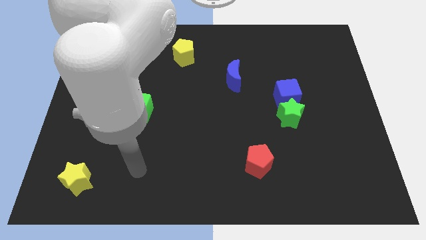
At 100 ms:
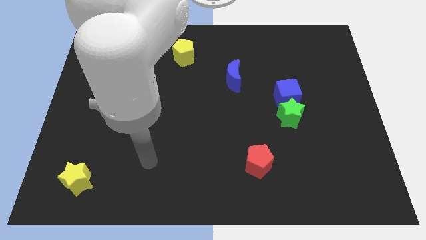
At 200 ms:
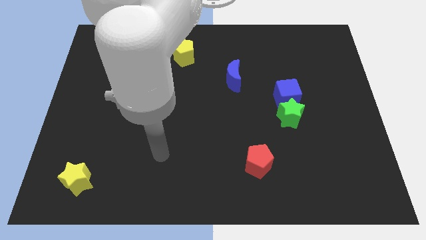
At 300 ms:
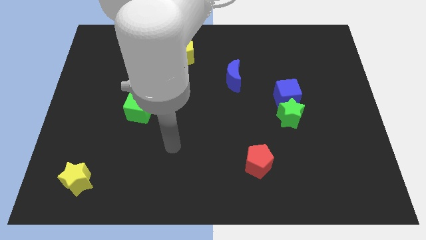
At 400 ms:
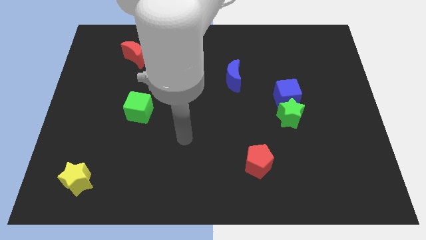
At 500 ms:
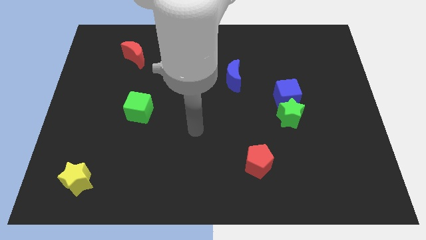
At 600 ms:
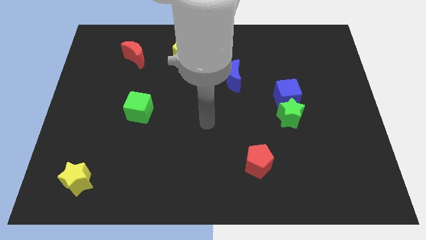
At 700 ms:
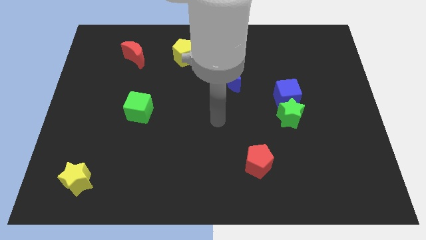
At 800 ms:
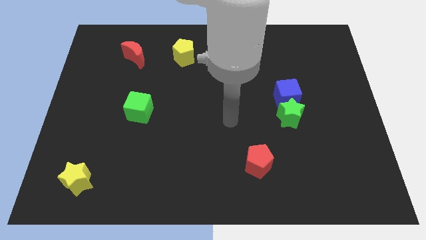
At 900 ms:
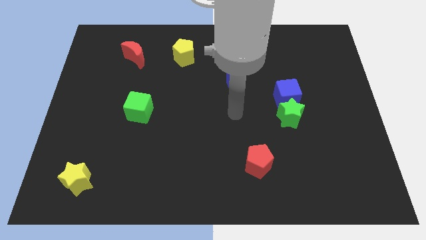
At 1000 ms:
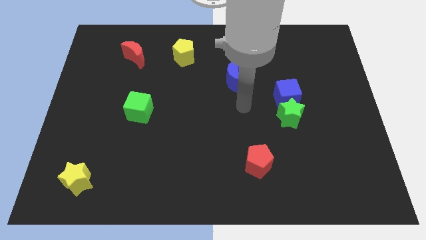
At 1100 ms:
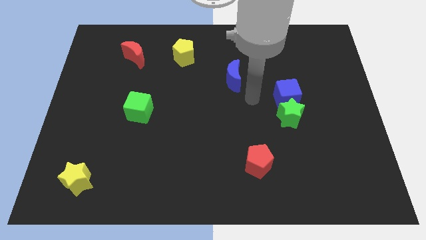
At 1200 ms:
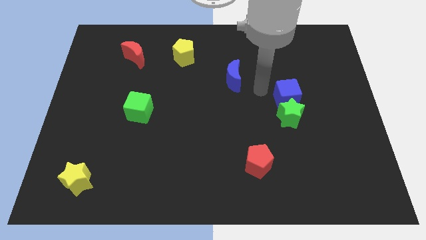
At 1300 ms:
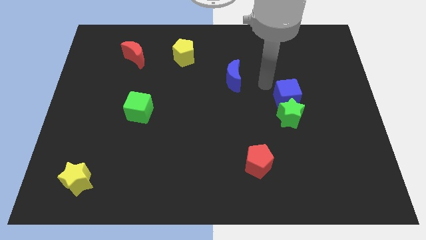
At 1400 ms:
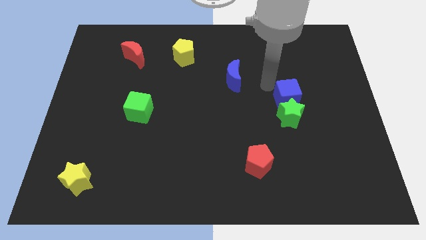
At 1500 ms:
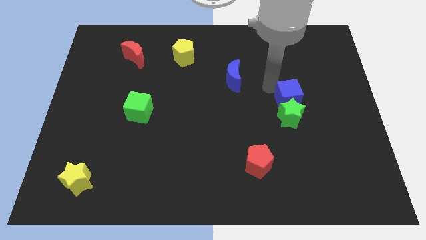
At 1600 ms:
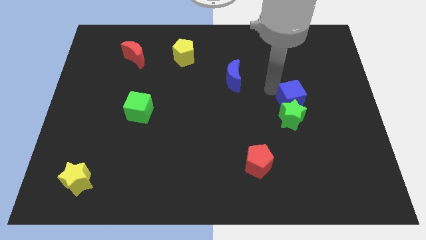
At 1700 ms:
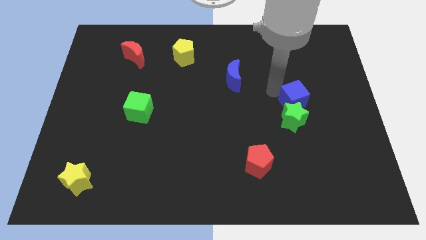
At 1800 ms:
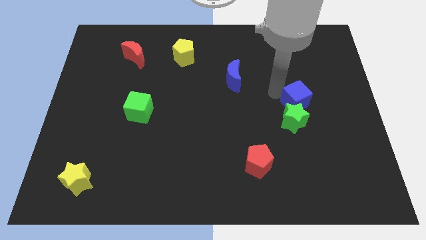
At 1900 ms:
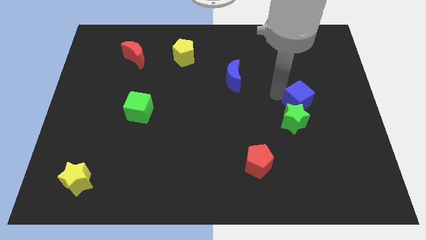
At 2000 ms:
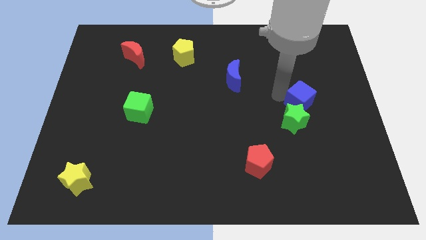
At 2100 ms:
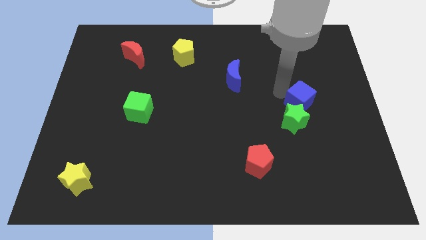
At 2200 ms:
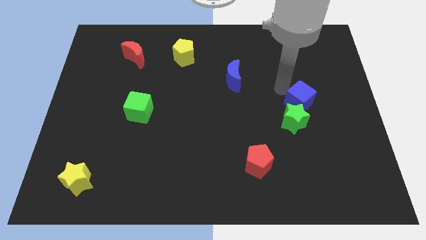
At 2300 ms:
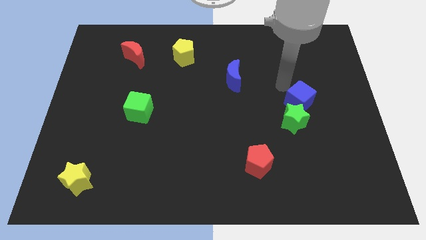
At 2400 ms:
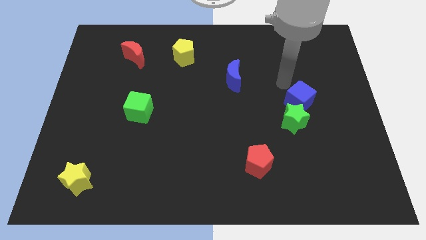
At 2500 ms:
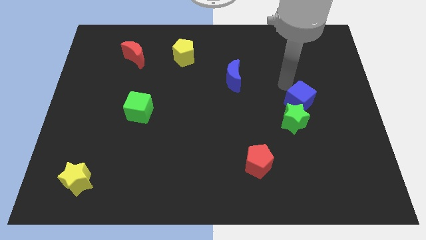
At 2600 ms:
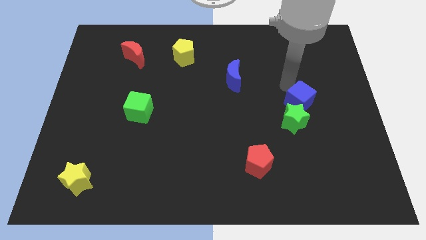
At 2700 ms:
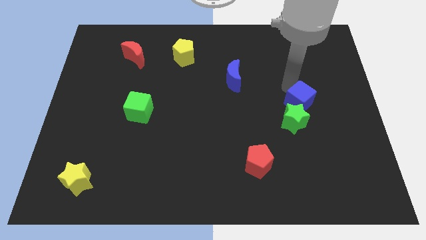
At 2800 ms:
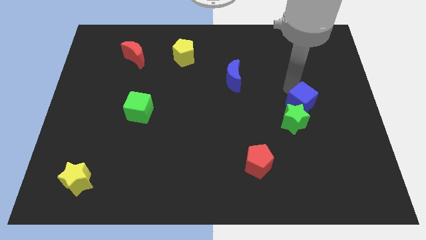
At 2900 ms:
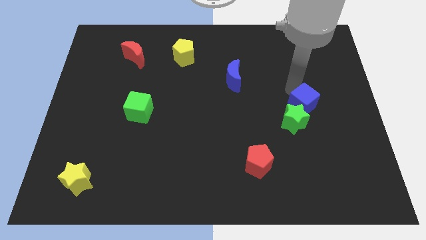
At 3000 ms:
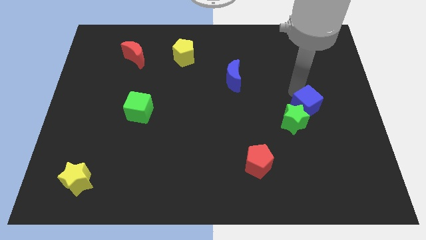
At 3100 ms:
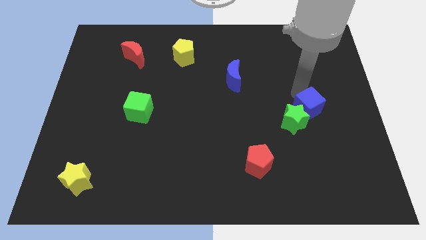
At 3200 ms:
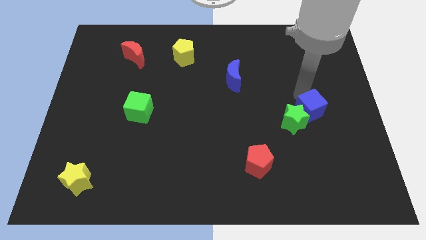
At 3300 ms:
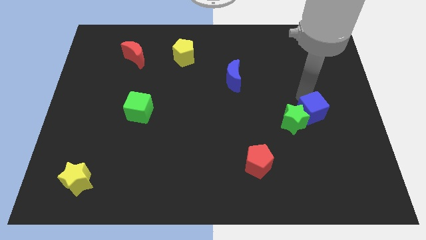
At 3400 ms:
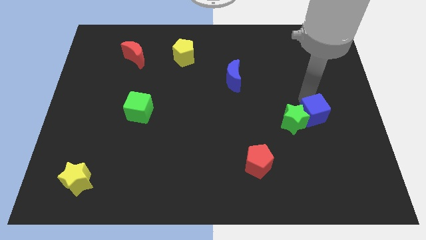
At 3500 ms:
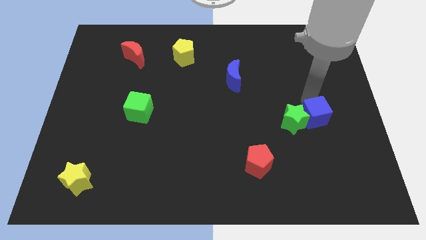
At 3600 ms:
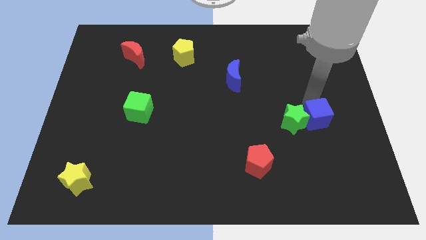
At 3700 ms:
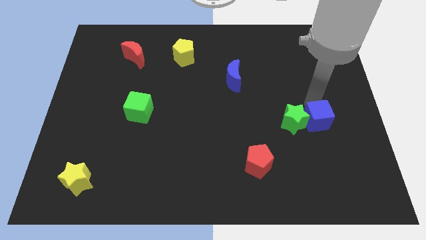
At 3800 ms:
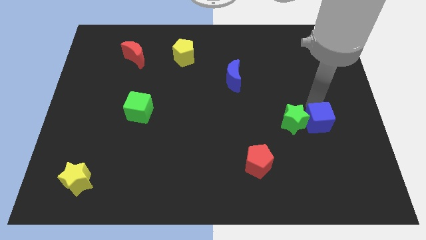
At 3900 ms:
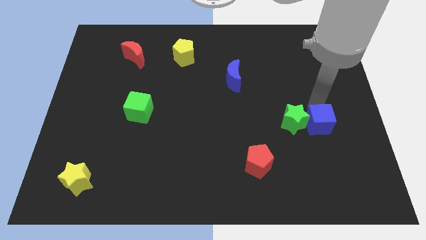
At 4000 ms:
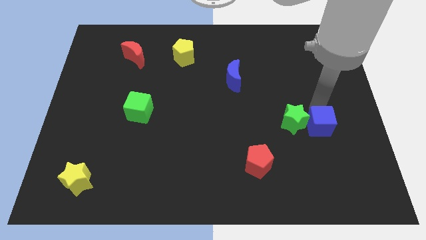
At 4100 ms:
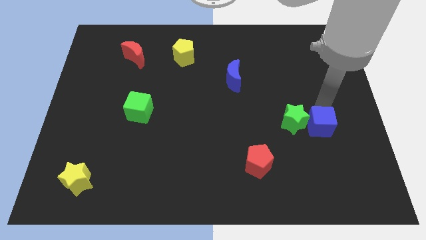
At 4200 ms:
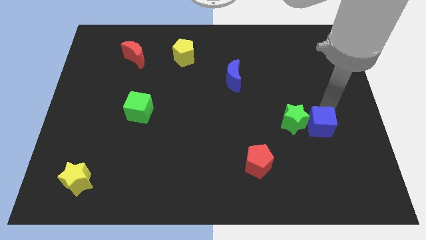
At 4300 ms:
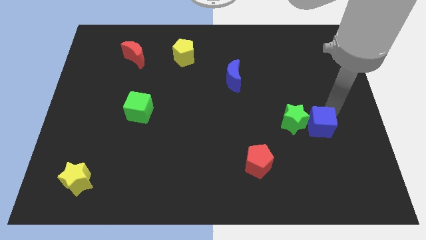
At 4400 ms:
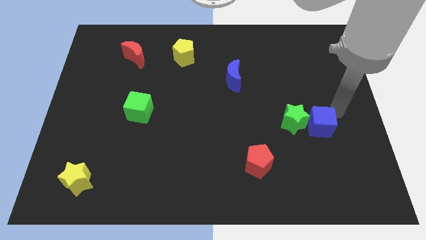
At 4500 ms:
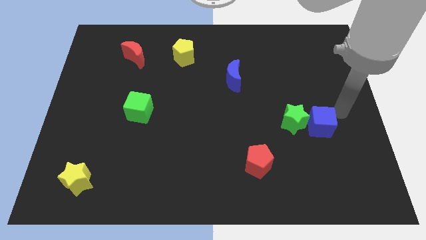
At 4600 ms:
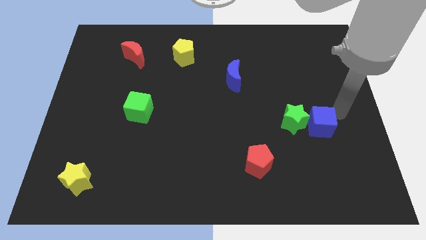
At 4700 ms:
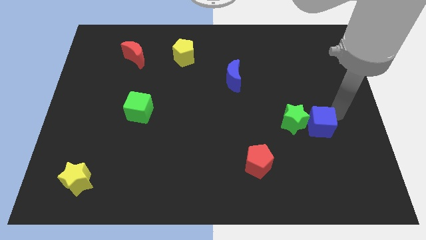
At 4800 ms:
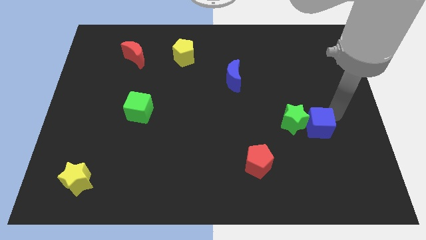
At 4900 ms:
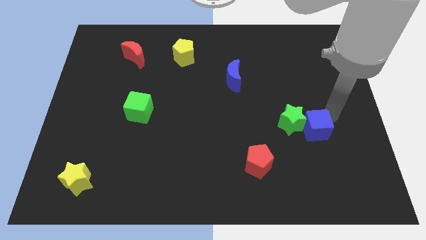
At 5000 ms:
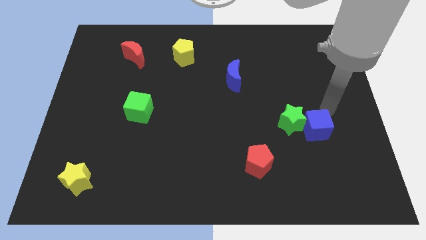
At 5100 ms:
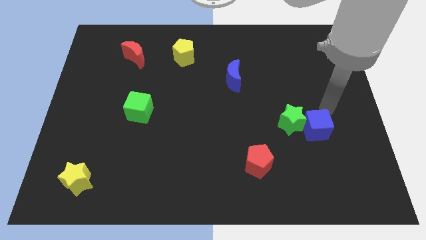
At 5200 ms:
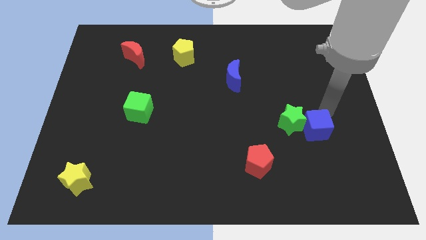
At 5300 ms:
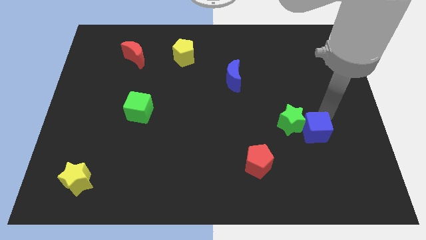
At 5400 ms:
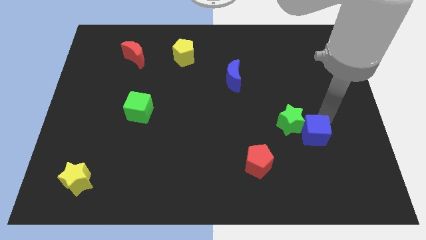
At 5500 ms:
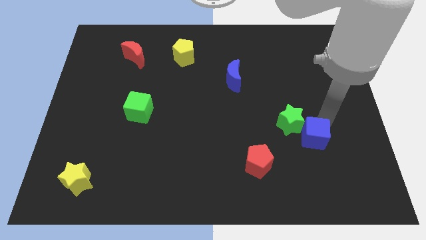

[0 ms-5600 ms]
move the blue cube below the green star

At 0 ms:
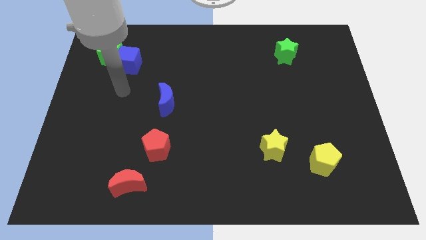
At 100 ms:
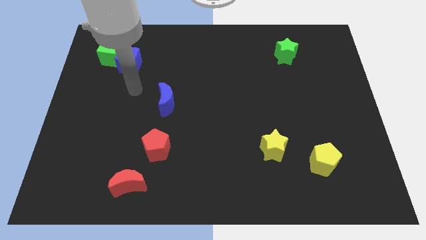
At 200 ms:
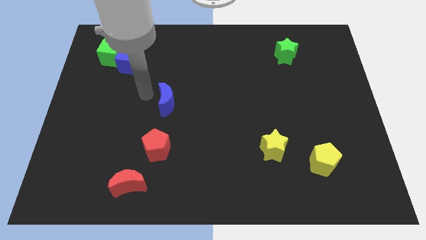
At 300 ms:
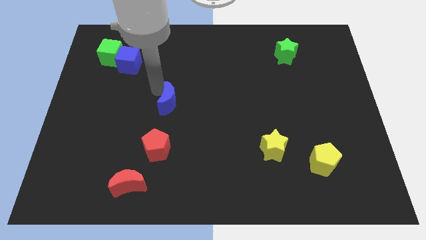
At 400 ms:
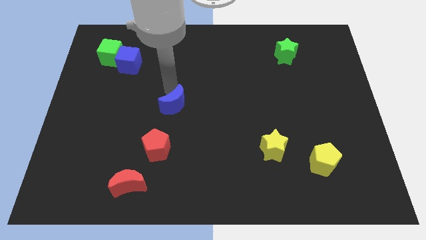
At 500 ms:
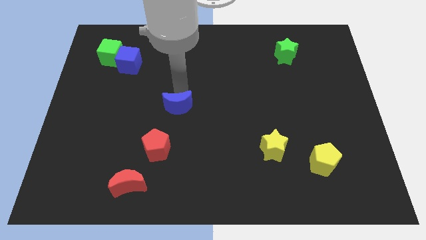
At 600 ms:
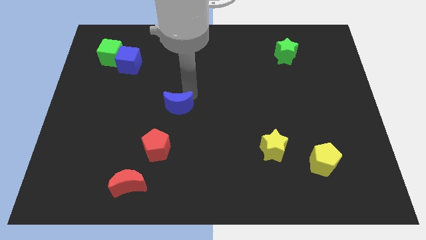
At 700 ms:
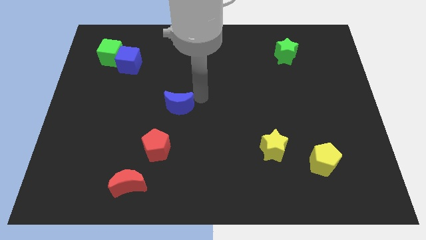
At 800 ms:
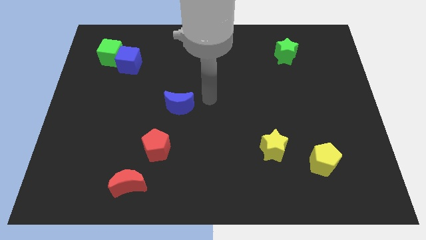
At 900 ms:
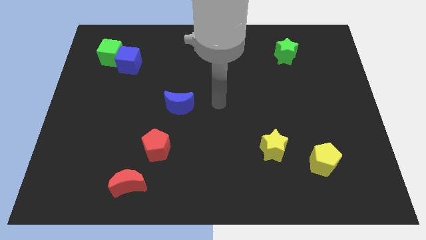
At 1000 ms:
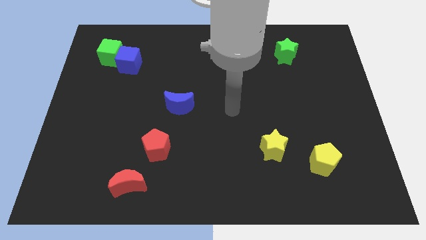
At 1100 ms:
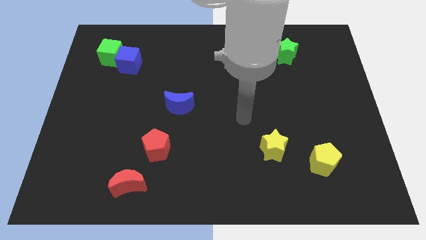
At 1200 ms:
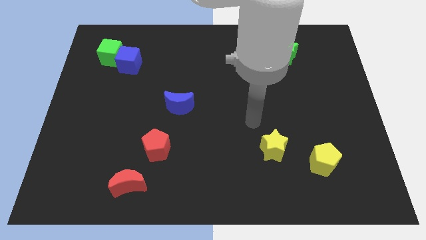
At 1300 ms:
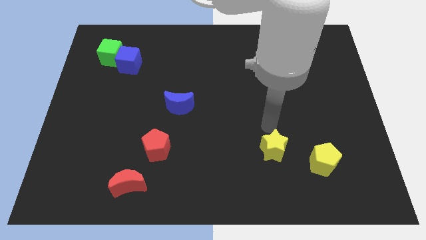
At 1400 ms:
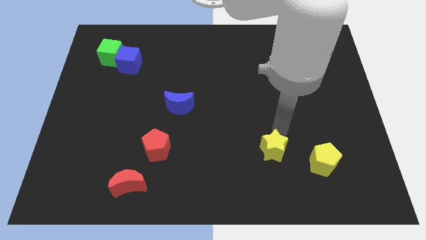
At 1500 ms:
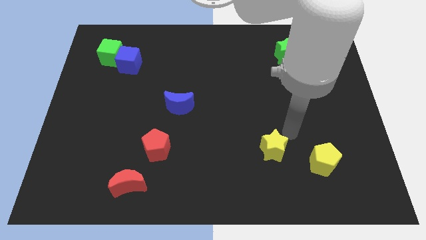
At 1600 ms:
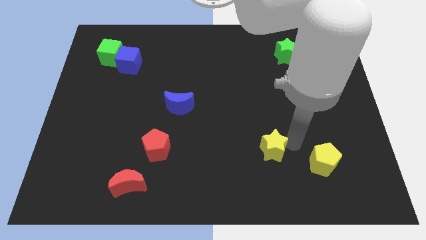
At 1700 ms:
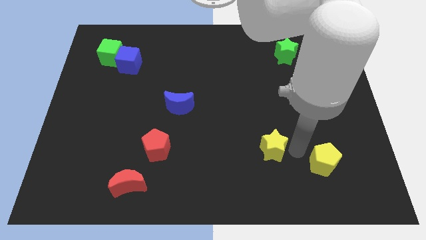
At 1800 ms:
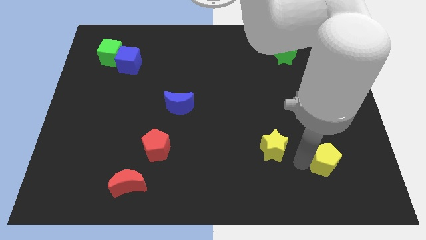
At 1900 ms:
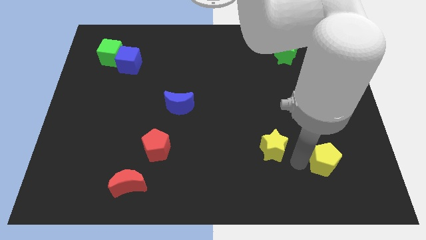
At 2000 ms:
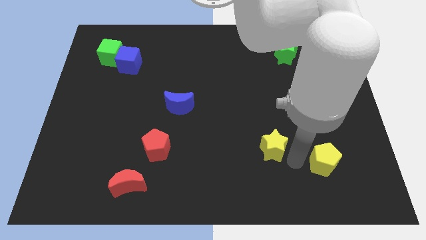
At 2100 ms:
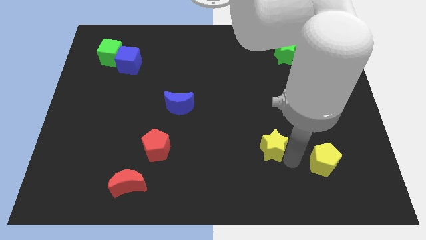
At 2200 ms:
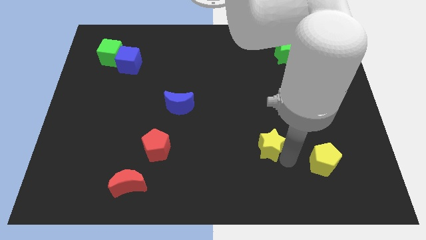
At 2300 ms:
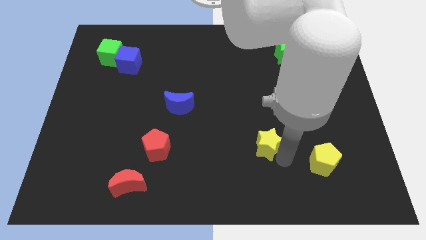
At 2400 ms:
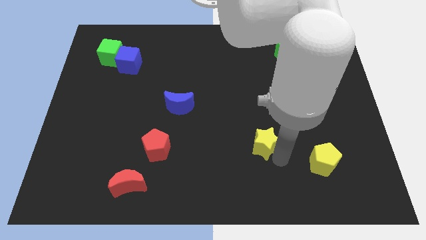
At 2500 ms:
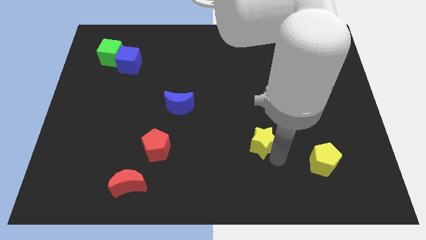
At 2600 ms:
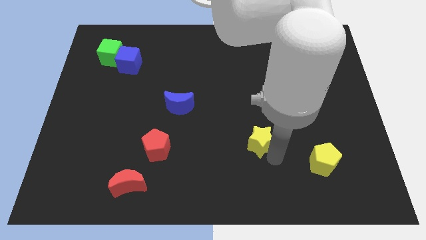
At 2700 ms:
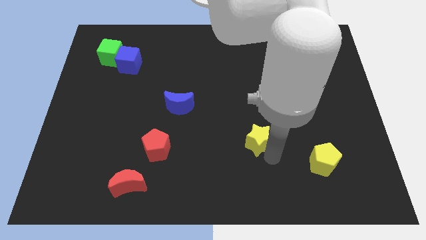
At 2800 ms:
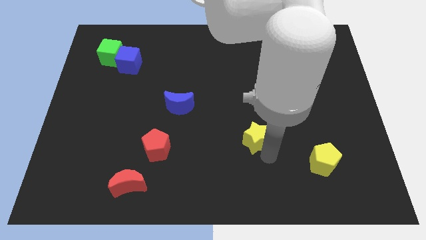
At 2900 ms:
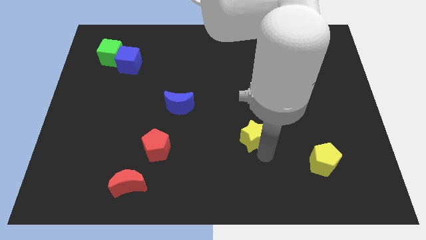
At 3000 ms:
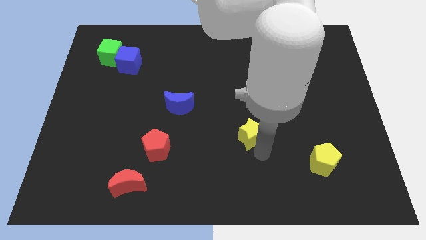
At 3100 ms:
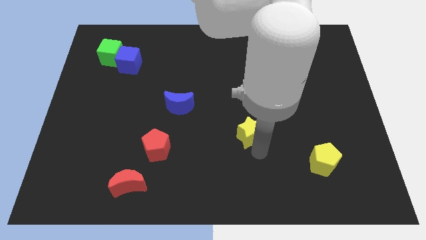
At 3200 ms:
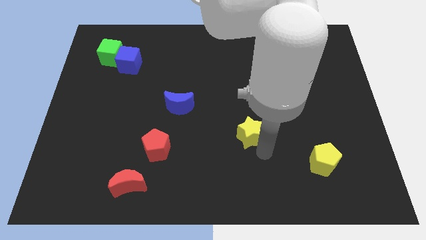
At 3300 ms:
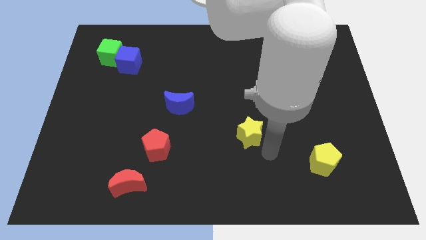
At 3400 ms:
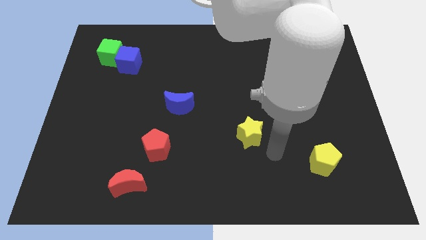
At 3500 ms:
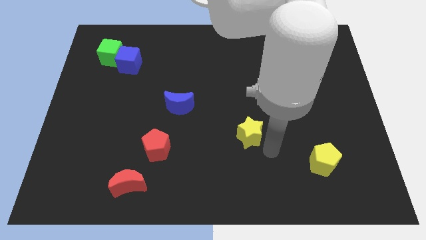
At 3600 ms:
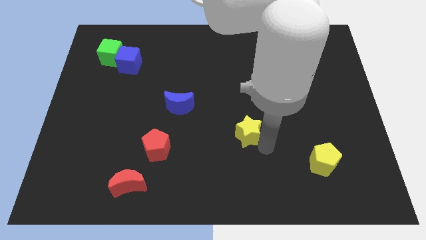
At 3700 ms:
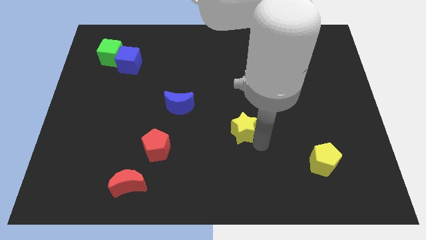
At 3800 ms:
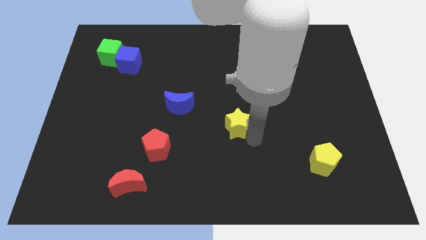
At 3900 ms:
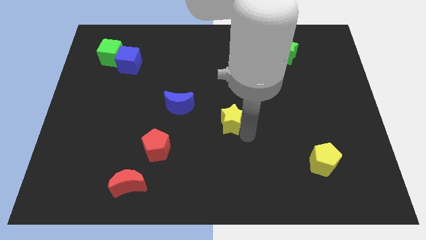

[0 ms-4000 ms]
move the yellow star just right of the blue moon
